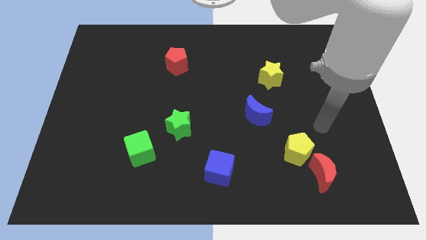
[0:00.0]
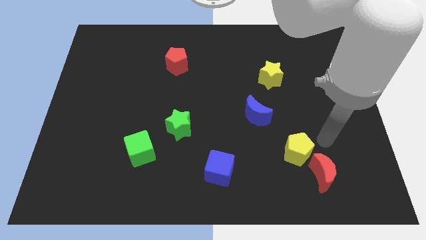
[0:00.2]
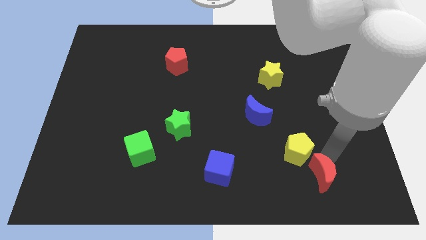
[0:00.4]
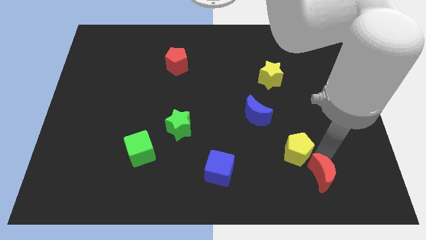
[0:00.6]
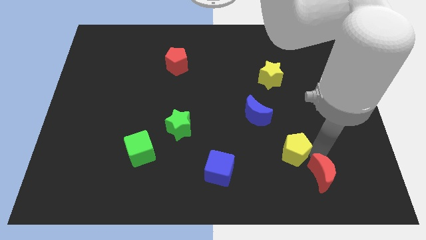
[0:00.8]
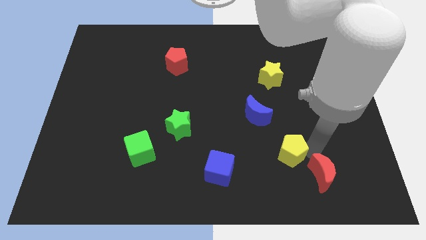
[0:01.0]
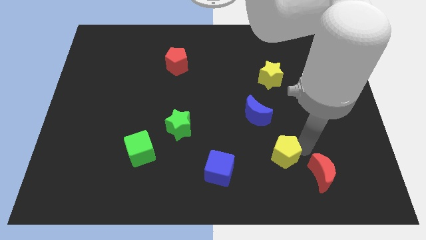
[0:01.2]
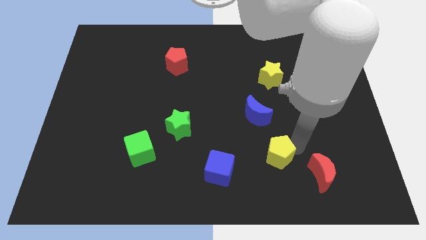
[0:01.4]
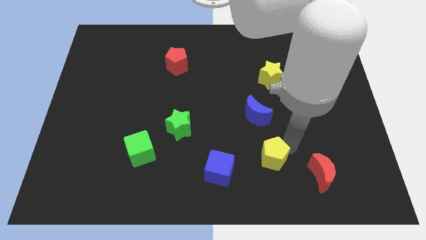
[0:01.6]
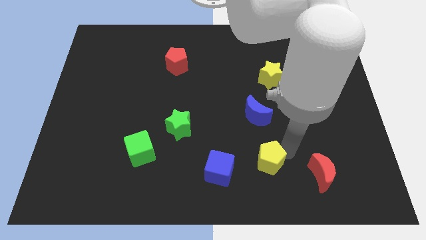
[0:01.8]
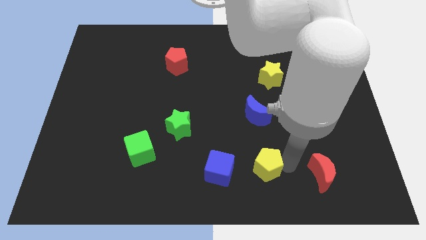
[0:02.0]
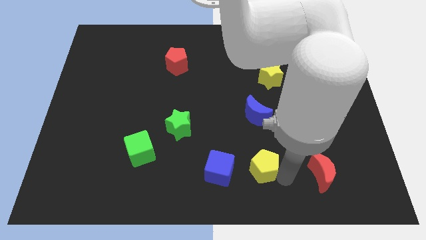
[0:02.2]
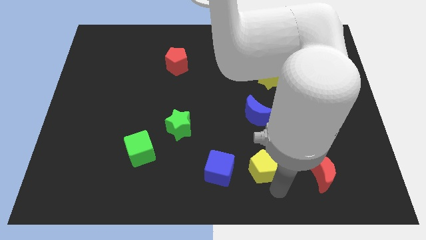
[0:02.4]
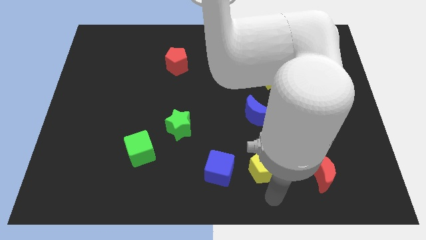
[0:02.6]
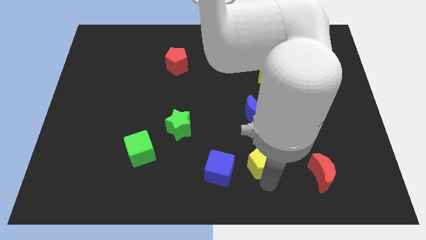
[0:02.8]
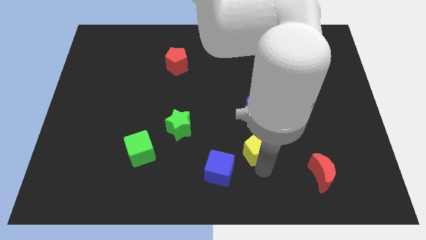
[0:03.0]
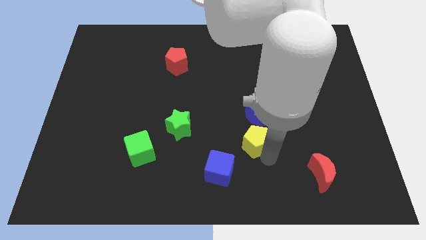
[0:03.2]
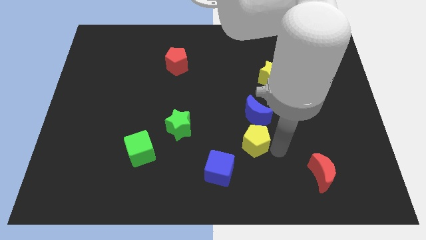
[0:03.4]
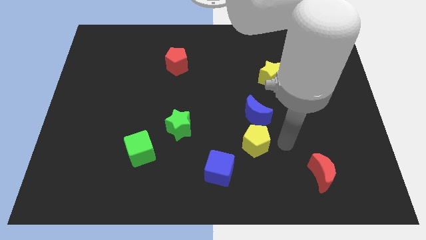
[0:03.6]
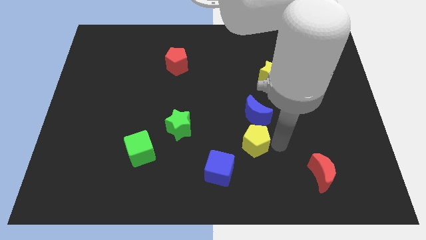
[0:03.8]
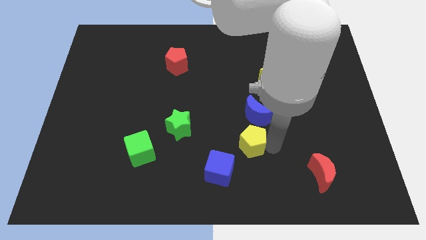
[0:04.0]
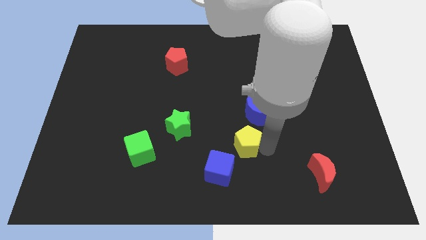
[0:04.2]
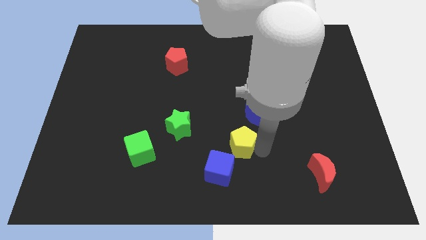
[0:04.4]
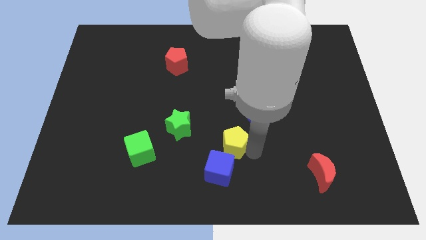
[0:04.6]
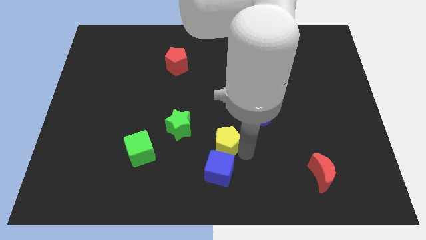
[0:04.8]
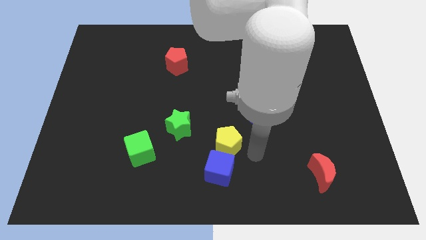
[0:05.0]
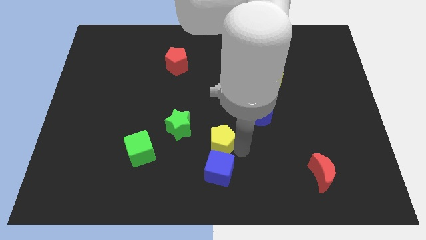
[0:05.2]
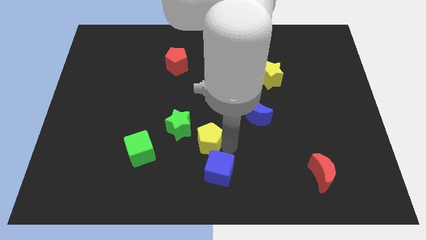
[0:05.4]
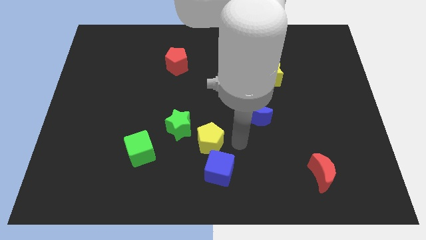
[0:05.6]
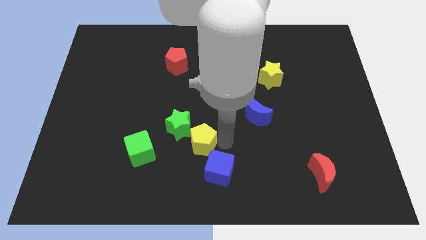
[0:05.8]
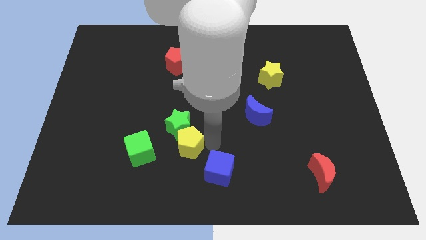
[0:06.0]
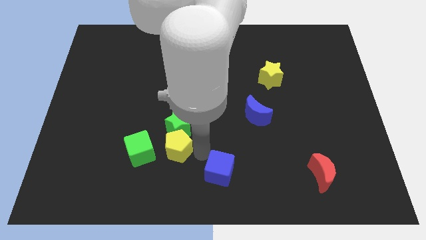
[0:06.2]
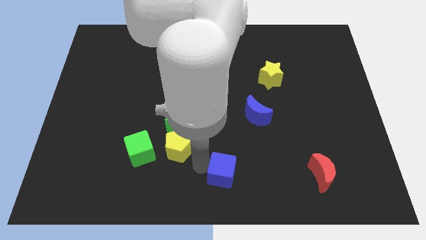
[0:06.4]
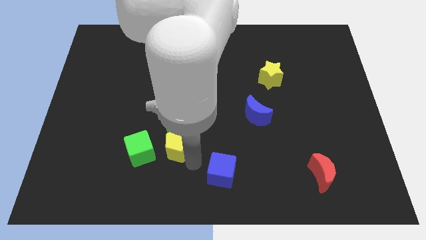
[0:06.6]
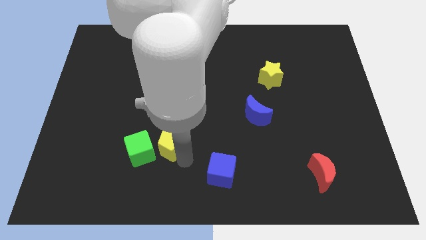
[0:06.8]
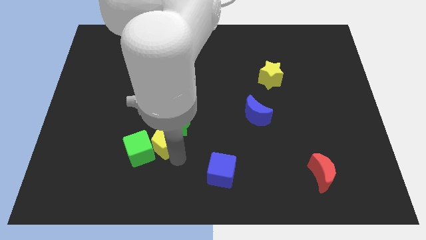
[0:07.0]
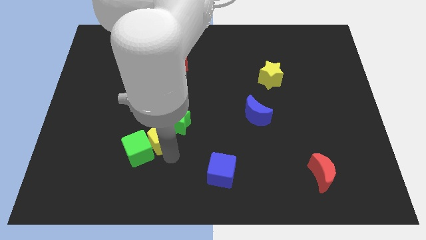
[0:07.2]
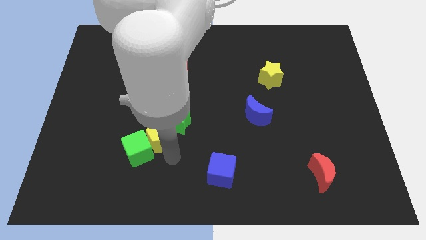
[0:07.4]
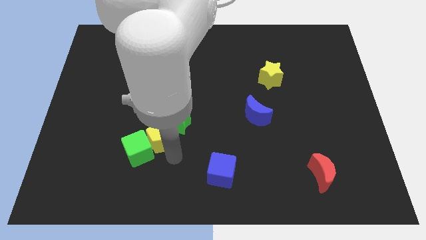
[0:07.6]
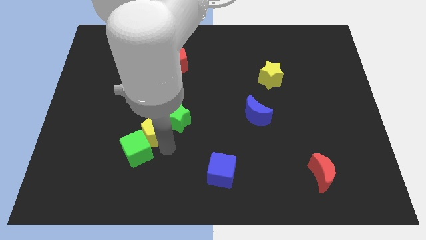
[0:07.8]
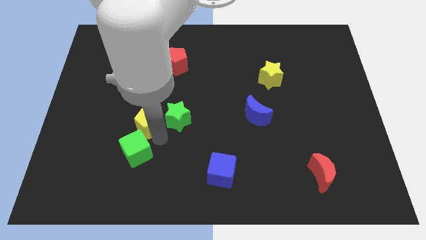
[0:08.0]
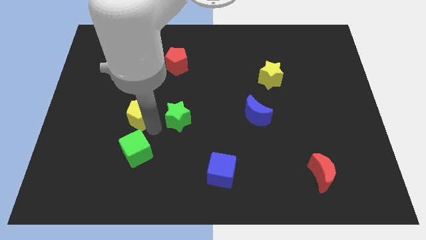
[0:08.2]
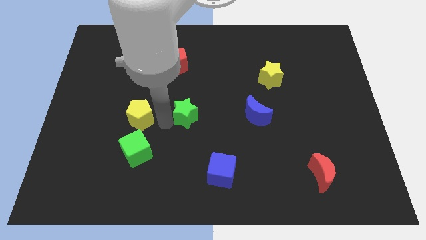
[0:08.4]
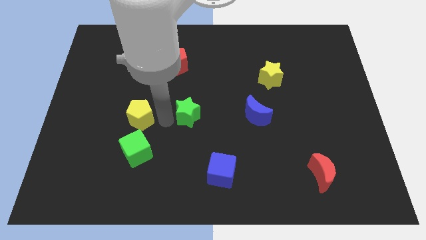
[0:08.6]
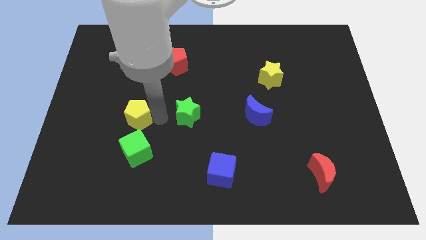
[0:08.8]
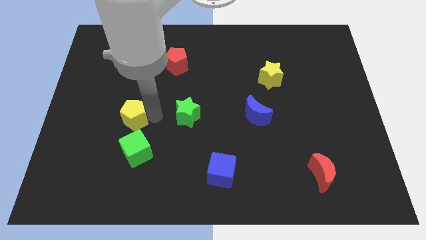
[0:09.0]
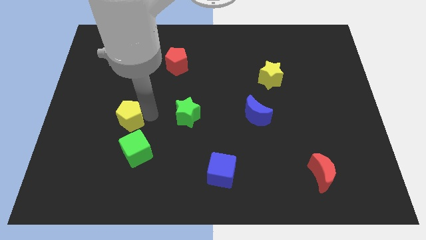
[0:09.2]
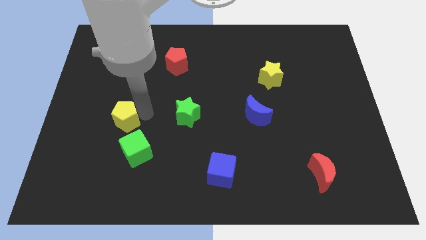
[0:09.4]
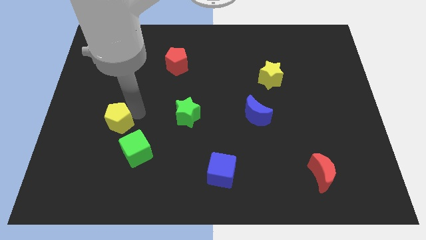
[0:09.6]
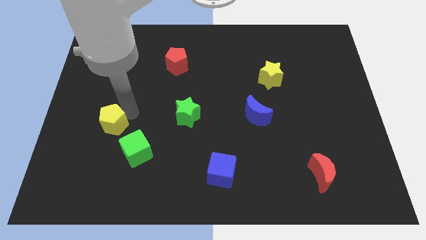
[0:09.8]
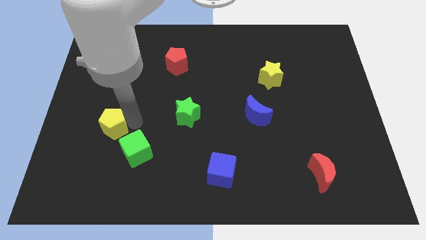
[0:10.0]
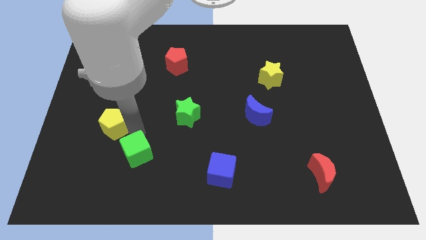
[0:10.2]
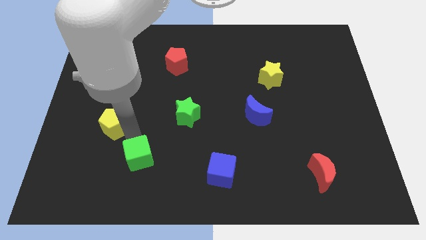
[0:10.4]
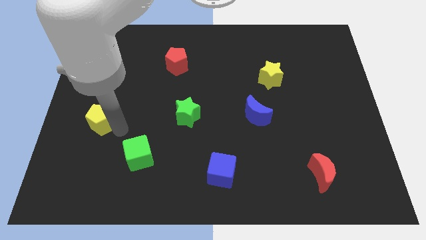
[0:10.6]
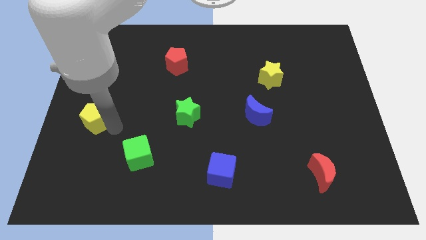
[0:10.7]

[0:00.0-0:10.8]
push the yellow pentagon to the center left

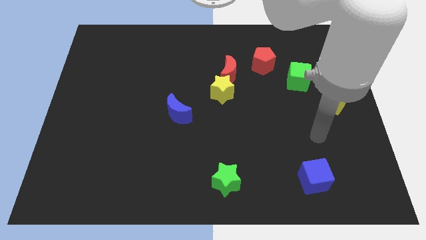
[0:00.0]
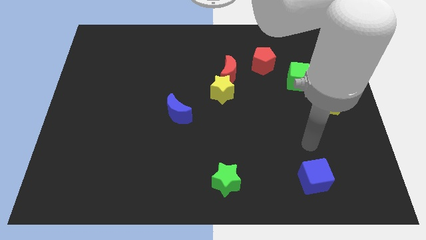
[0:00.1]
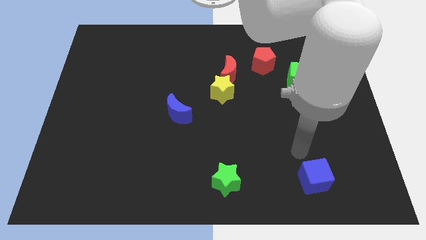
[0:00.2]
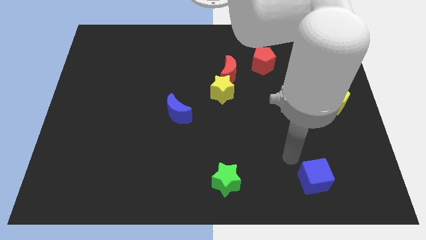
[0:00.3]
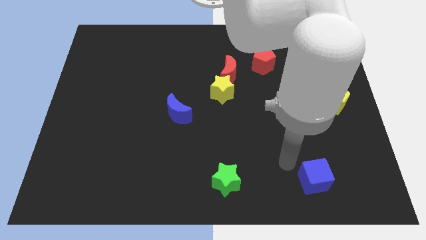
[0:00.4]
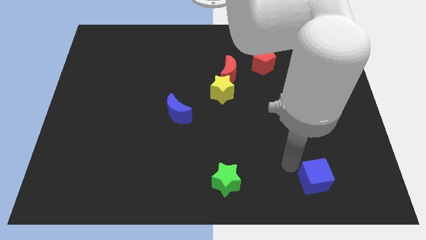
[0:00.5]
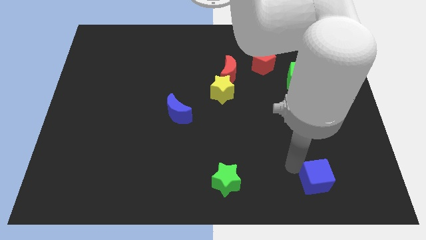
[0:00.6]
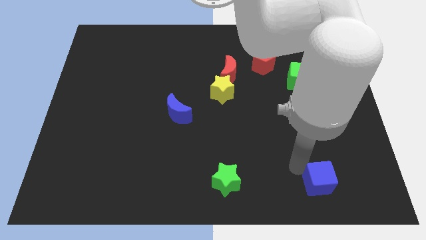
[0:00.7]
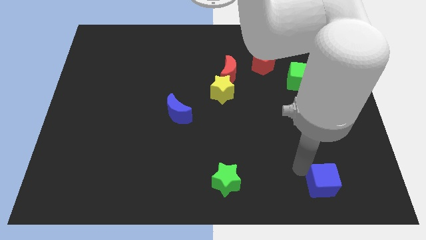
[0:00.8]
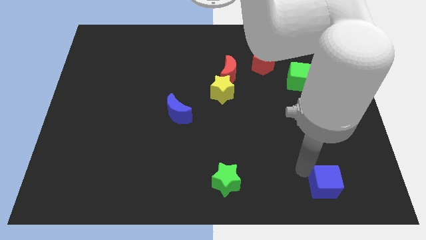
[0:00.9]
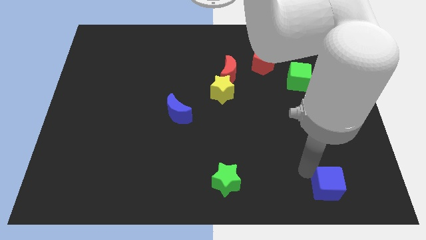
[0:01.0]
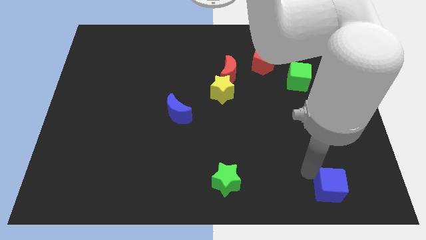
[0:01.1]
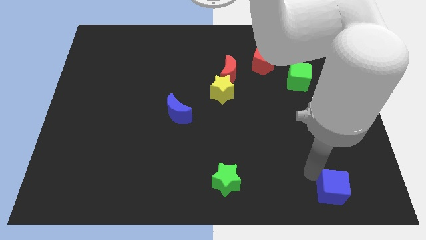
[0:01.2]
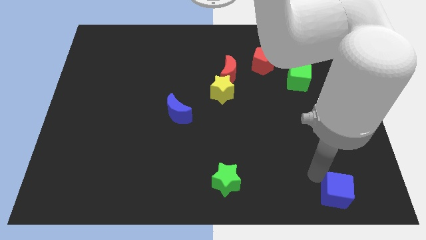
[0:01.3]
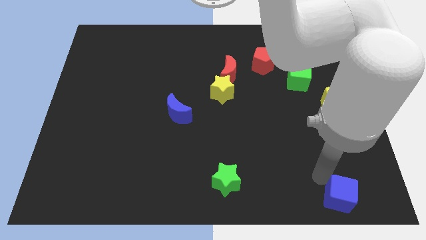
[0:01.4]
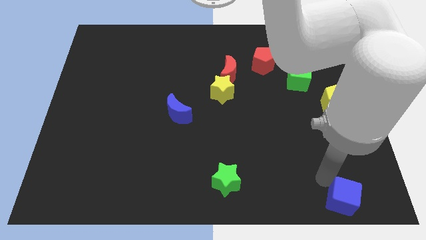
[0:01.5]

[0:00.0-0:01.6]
slide the blue cube to the lower right corner
